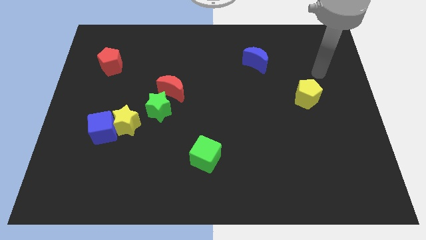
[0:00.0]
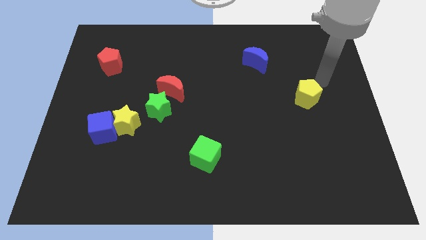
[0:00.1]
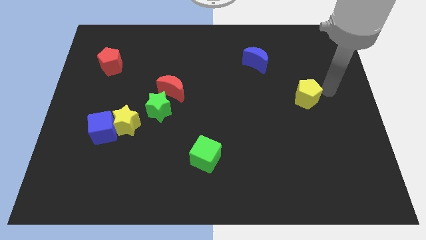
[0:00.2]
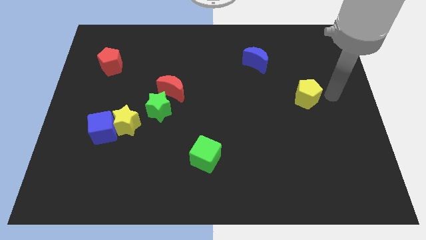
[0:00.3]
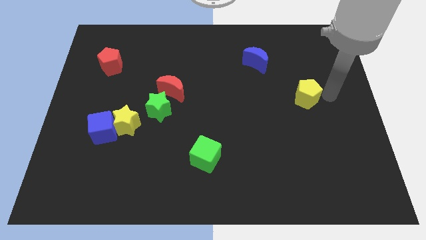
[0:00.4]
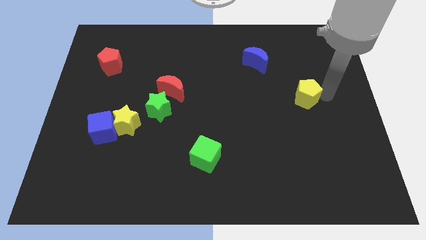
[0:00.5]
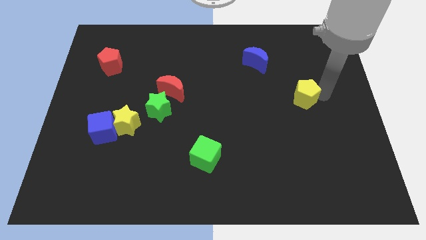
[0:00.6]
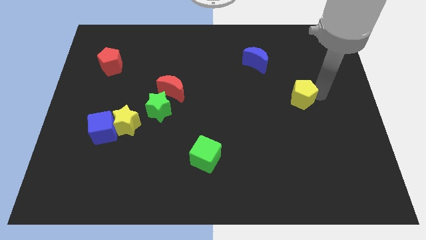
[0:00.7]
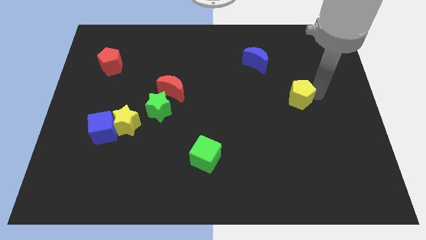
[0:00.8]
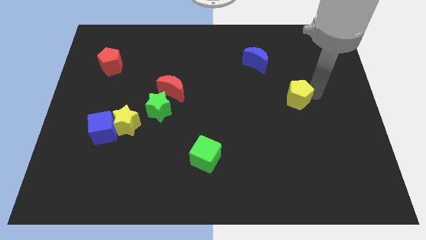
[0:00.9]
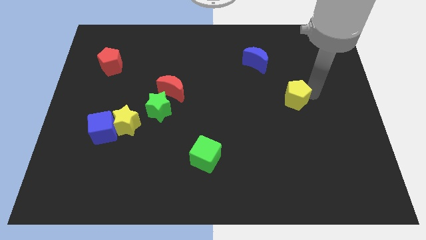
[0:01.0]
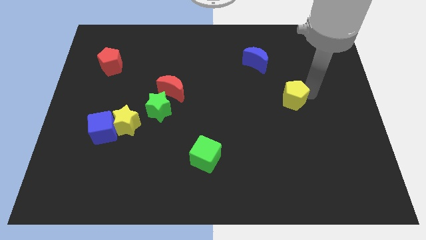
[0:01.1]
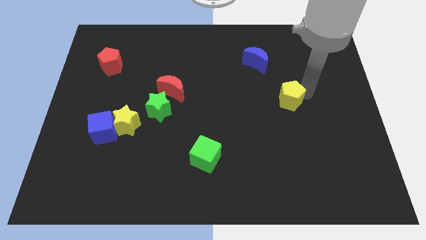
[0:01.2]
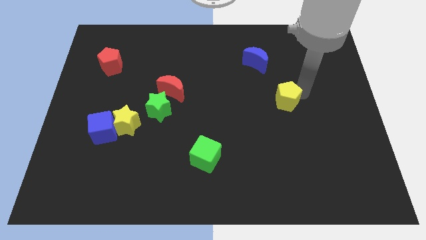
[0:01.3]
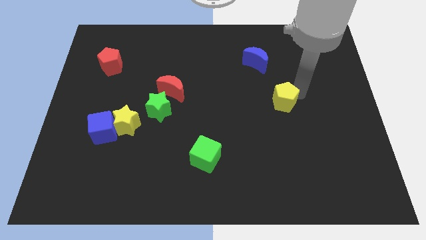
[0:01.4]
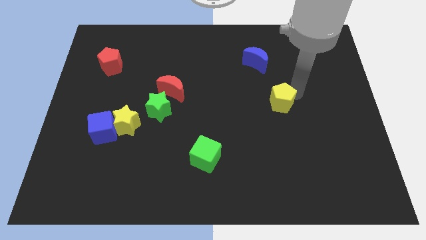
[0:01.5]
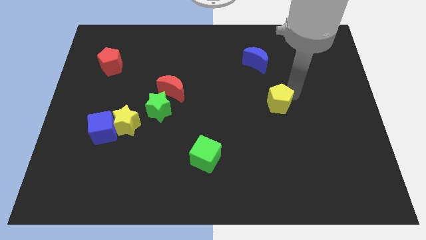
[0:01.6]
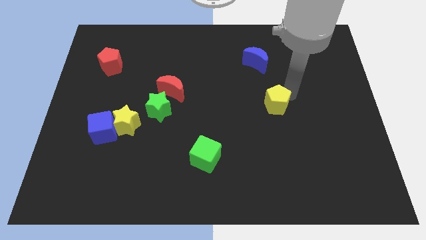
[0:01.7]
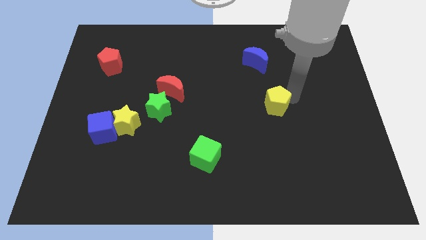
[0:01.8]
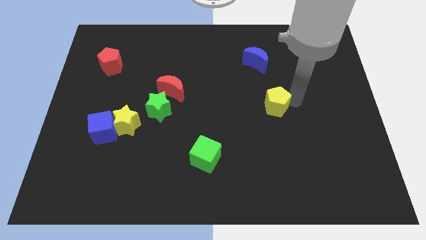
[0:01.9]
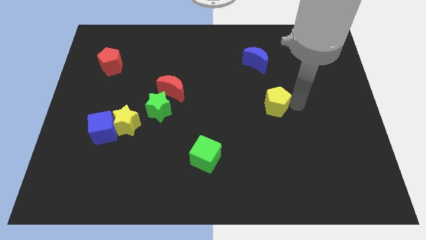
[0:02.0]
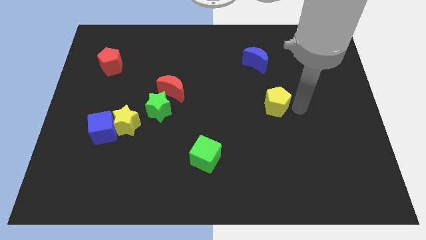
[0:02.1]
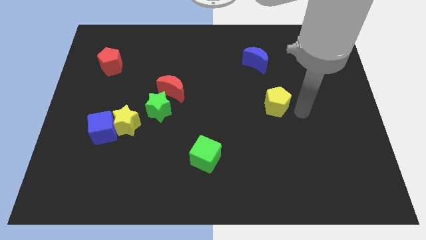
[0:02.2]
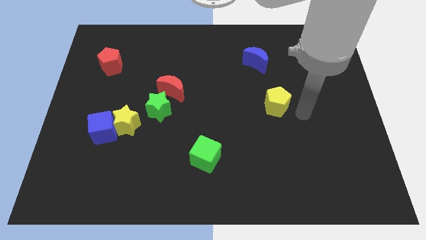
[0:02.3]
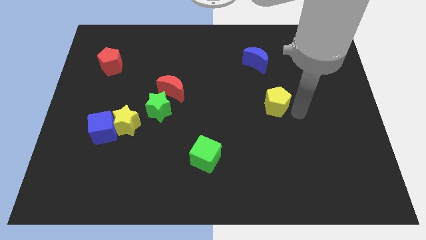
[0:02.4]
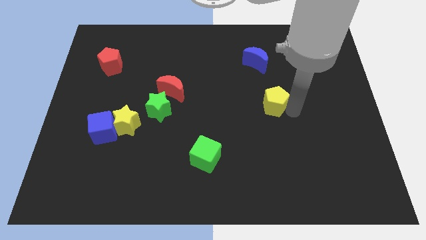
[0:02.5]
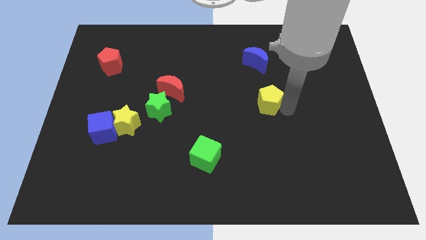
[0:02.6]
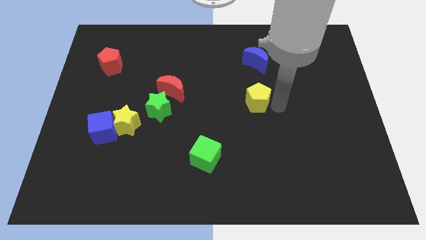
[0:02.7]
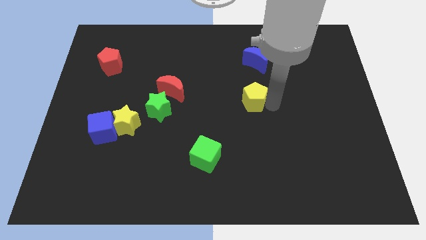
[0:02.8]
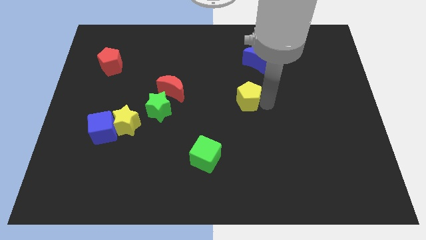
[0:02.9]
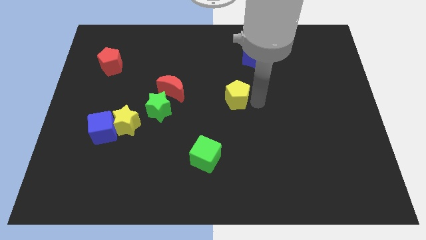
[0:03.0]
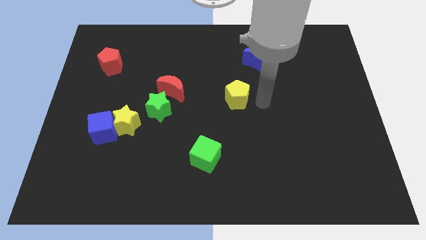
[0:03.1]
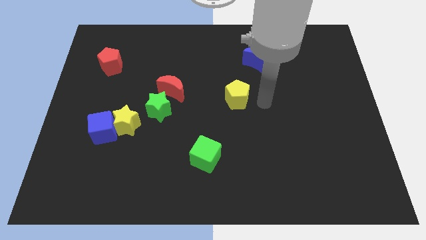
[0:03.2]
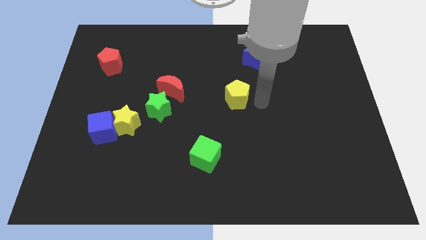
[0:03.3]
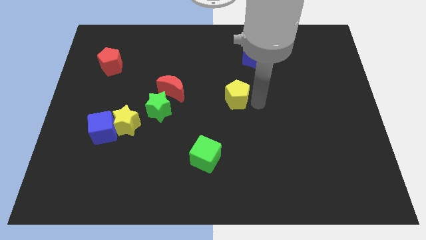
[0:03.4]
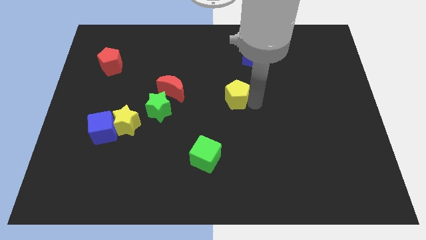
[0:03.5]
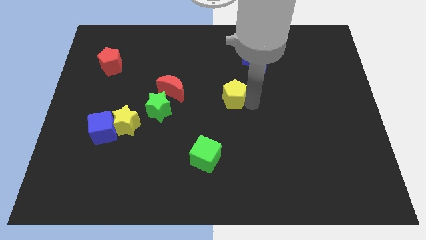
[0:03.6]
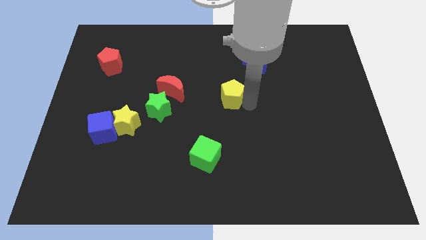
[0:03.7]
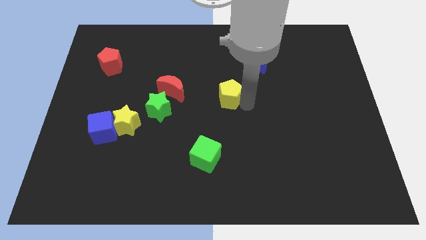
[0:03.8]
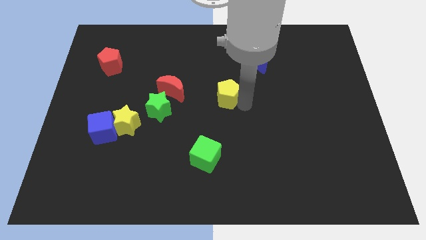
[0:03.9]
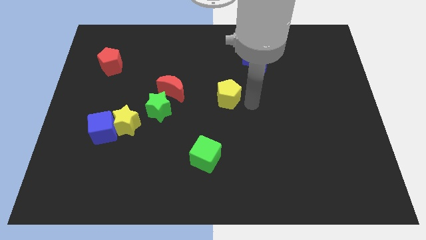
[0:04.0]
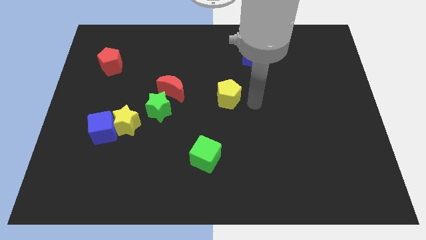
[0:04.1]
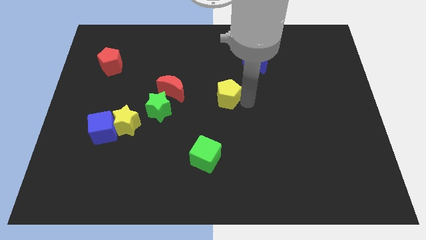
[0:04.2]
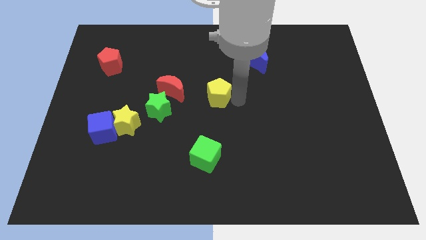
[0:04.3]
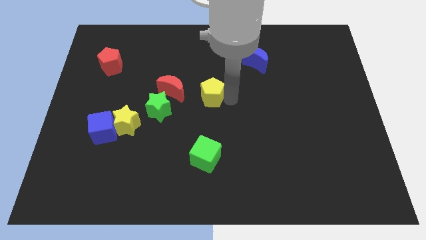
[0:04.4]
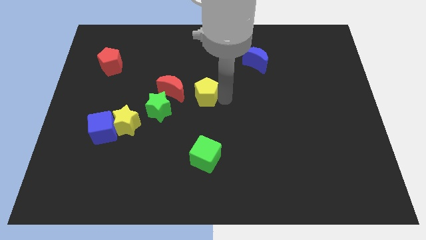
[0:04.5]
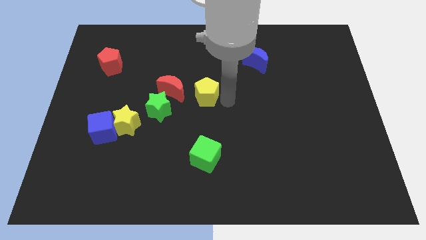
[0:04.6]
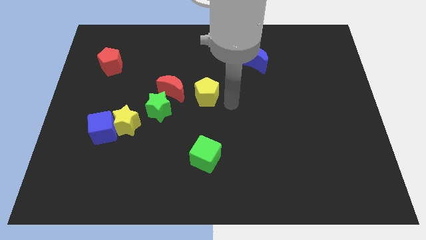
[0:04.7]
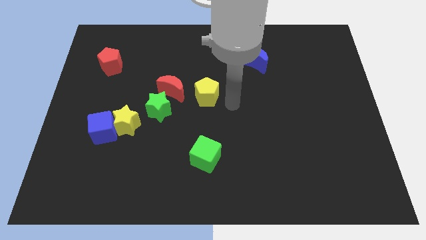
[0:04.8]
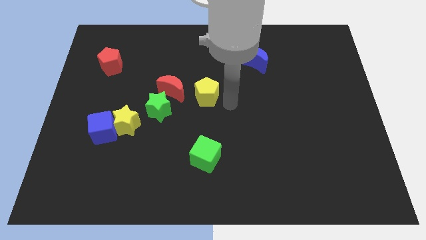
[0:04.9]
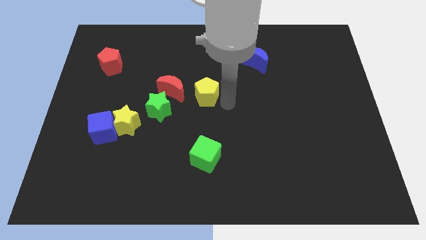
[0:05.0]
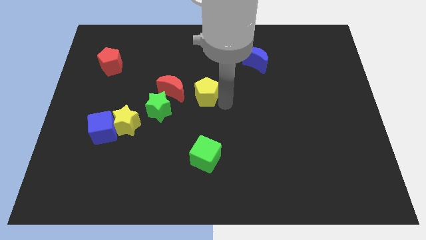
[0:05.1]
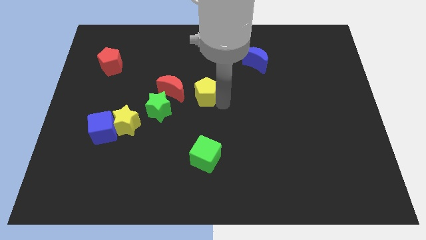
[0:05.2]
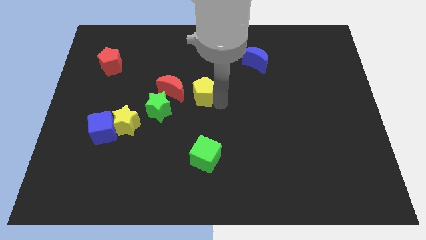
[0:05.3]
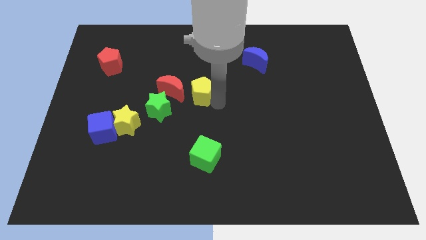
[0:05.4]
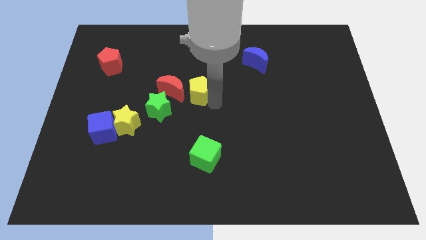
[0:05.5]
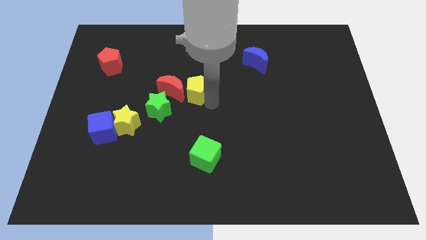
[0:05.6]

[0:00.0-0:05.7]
move the yellow pentagon towards the red moon

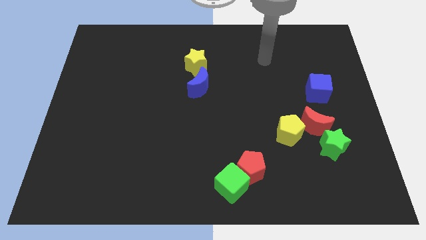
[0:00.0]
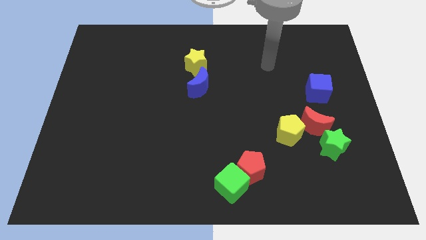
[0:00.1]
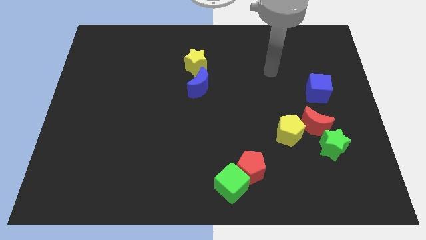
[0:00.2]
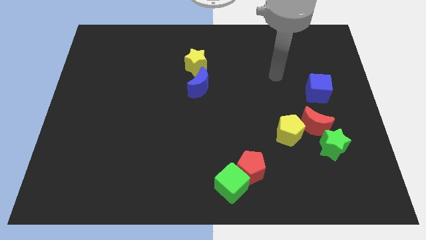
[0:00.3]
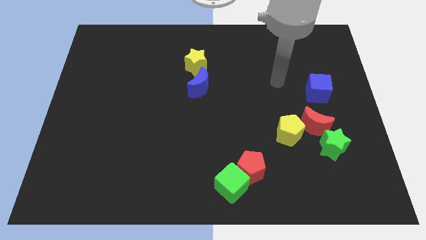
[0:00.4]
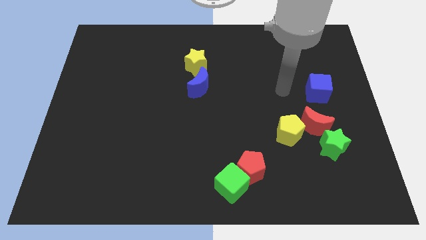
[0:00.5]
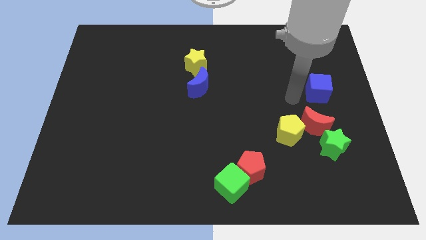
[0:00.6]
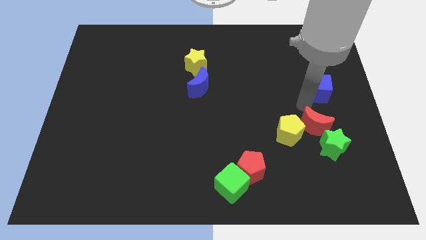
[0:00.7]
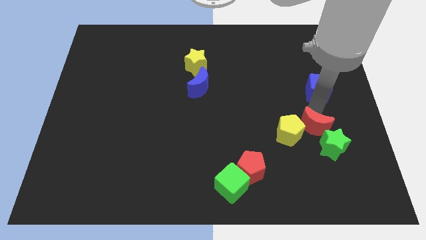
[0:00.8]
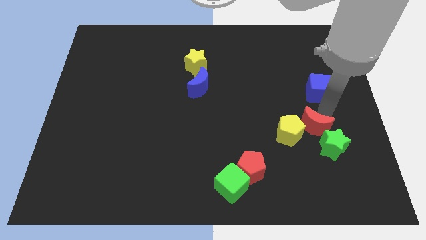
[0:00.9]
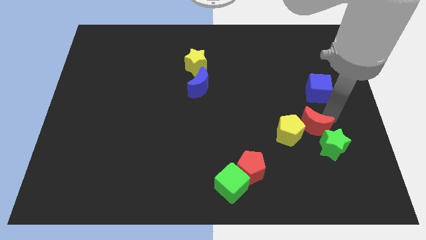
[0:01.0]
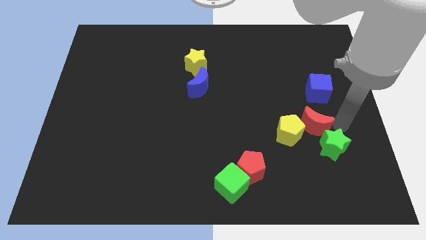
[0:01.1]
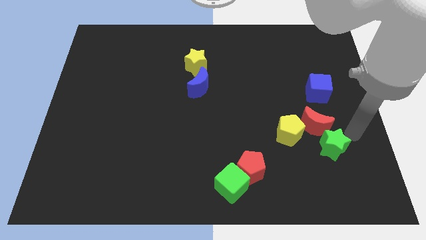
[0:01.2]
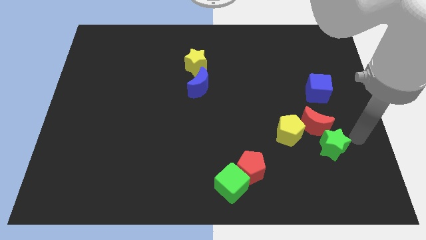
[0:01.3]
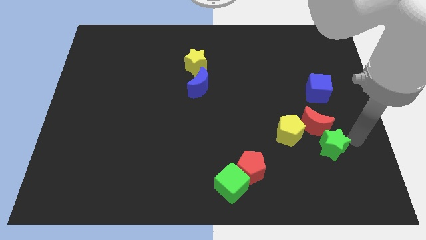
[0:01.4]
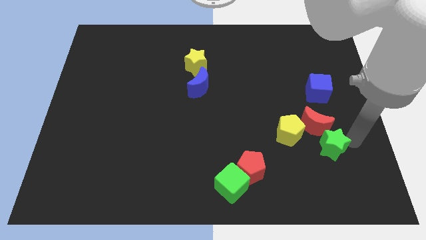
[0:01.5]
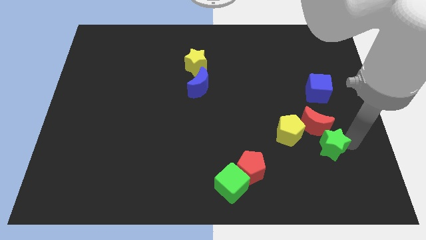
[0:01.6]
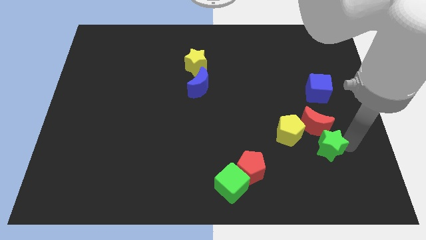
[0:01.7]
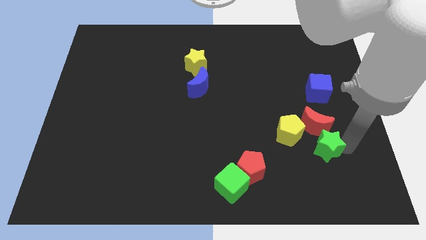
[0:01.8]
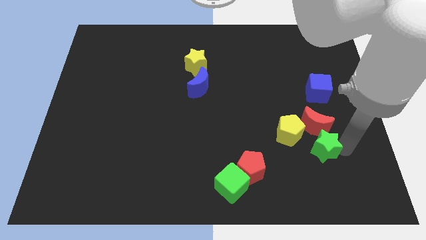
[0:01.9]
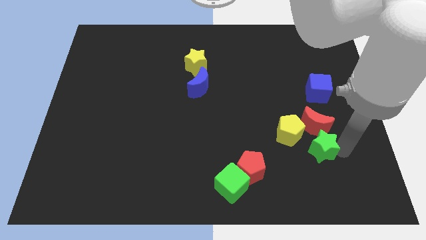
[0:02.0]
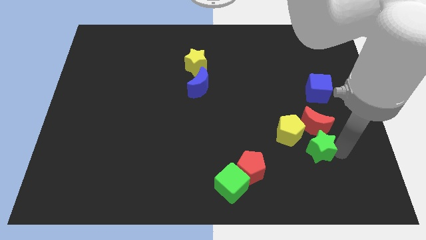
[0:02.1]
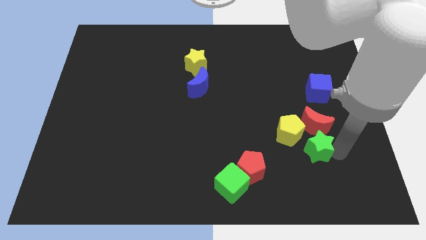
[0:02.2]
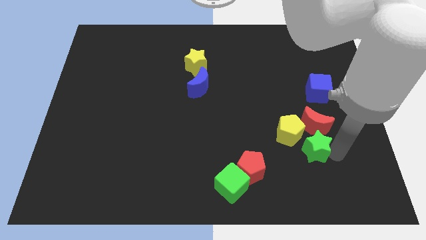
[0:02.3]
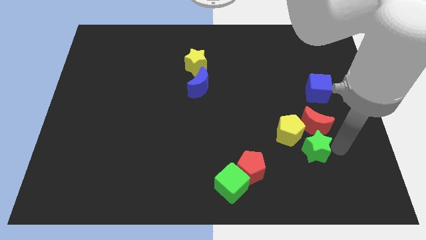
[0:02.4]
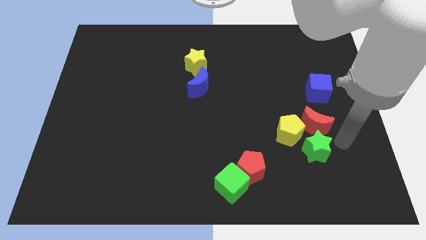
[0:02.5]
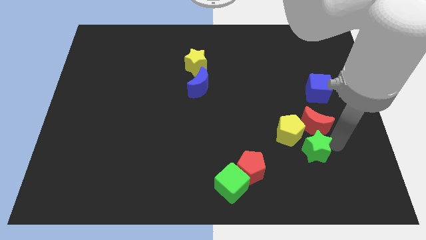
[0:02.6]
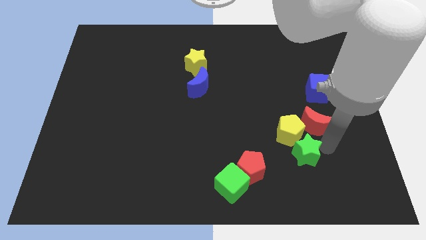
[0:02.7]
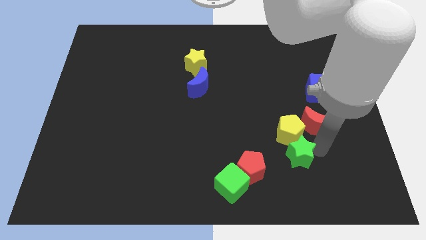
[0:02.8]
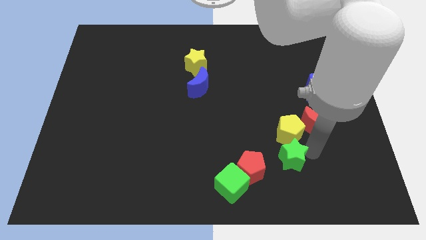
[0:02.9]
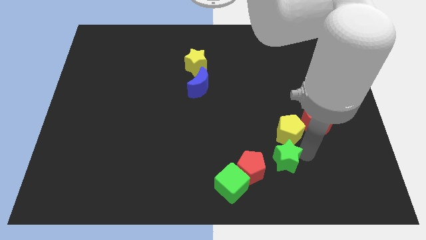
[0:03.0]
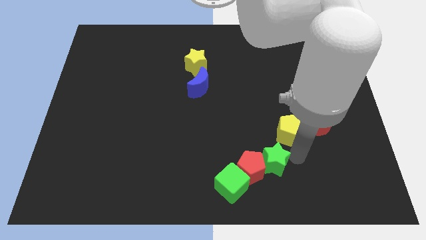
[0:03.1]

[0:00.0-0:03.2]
move the green star towards the red pentagon
